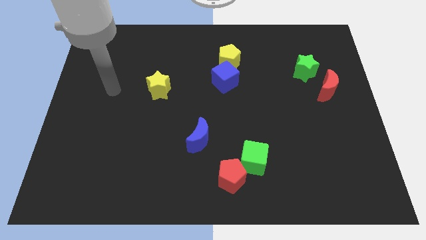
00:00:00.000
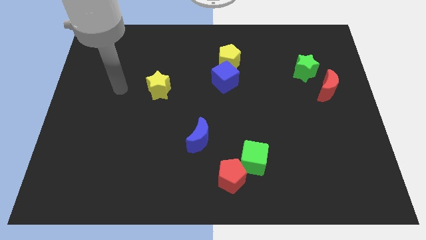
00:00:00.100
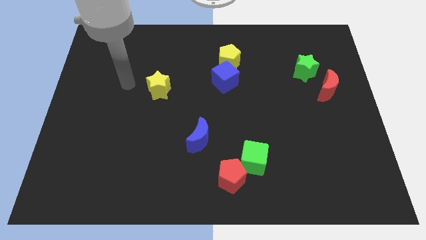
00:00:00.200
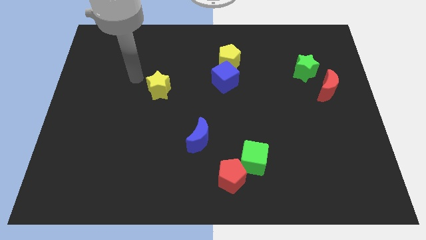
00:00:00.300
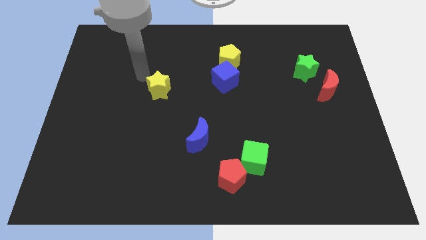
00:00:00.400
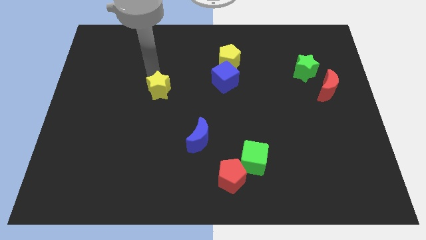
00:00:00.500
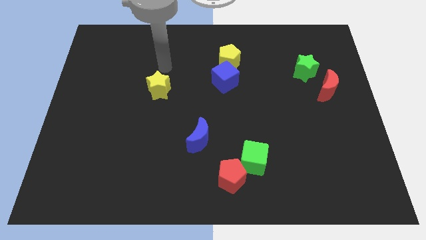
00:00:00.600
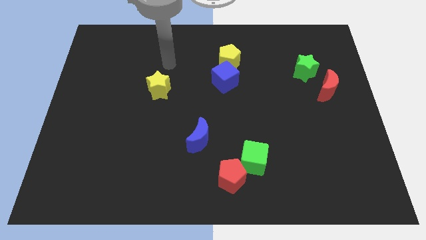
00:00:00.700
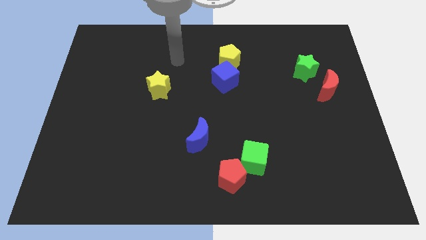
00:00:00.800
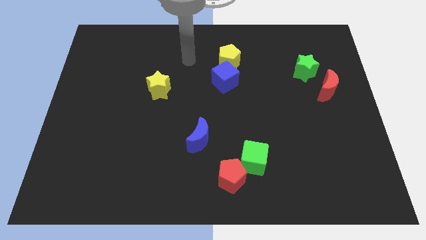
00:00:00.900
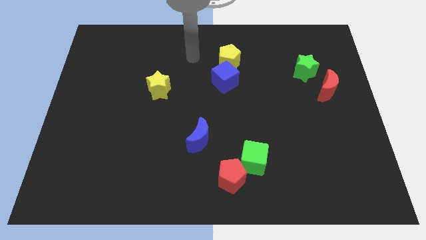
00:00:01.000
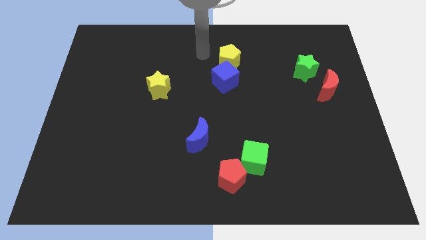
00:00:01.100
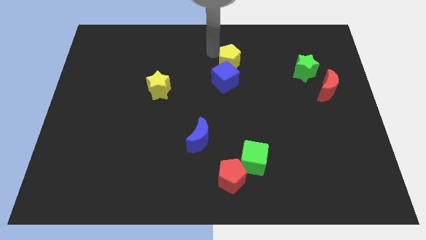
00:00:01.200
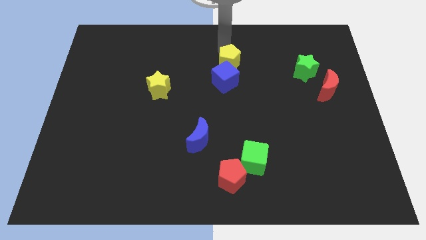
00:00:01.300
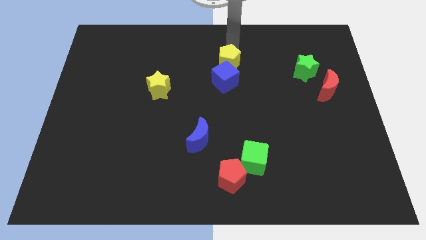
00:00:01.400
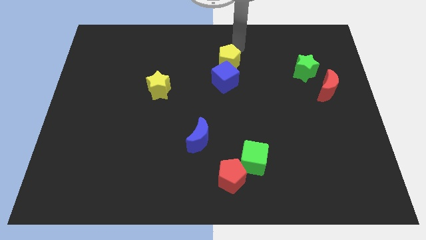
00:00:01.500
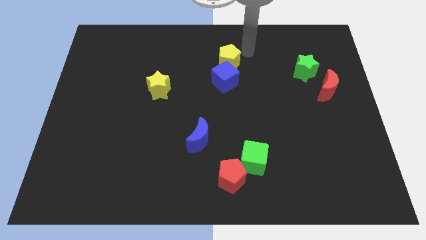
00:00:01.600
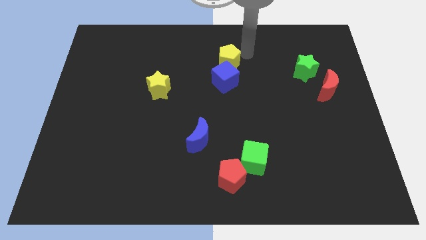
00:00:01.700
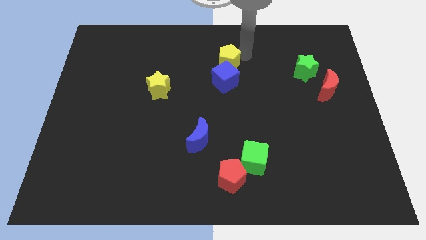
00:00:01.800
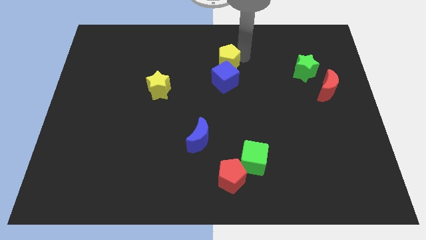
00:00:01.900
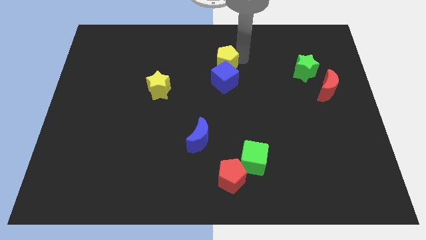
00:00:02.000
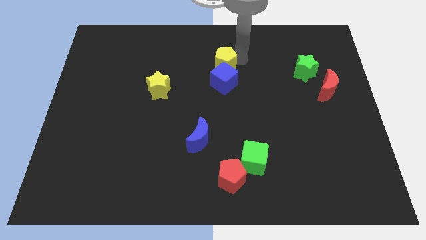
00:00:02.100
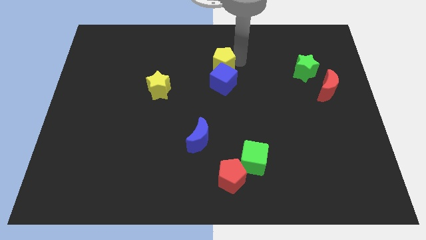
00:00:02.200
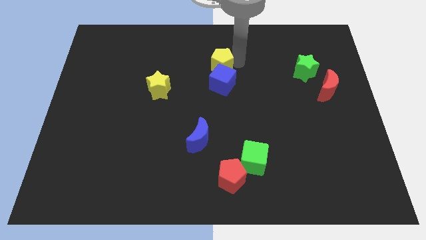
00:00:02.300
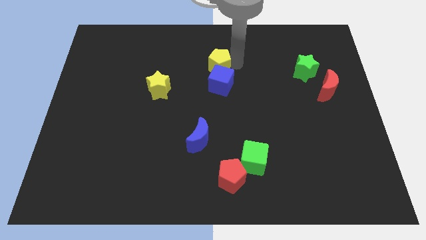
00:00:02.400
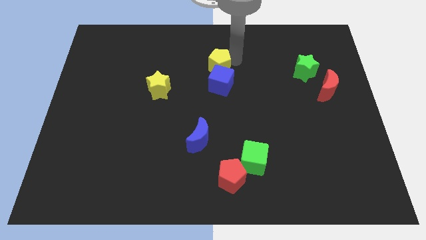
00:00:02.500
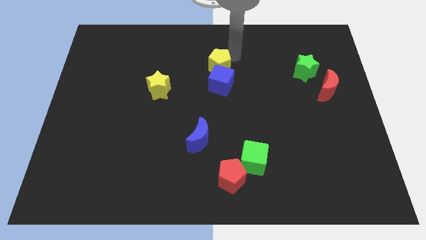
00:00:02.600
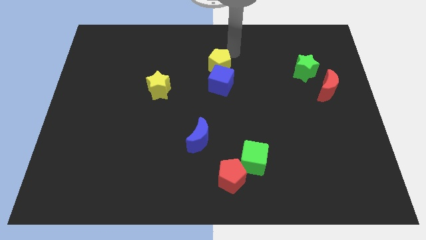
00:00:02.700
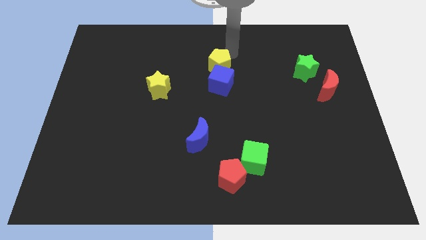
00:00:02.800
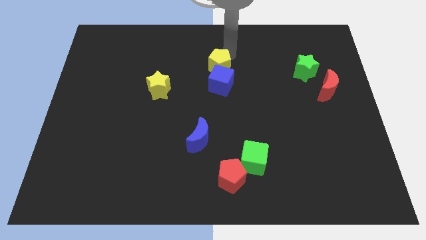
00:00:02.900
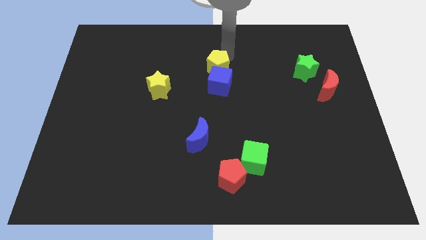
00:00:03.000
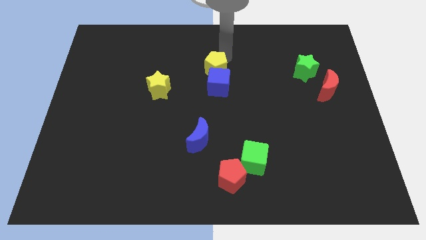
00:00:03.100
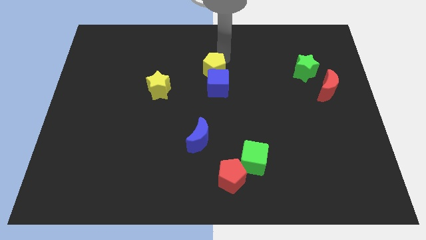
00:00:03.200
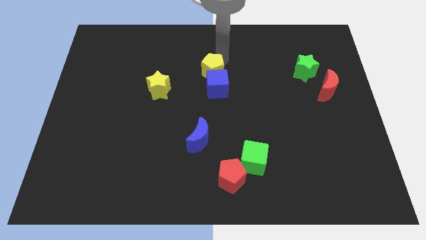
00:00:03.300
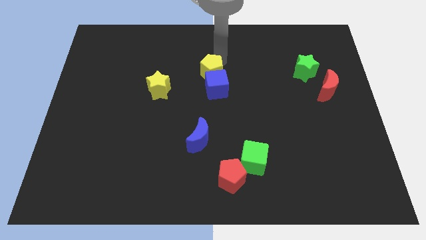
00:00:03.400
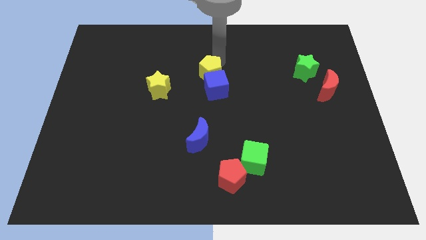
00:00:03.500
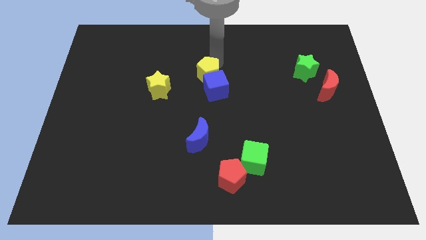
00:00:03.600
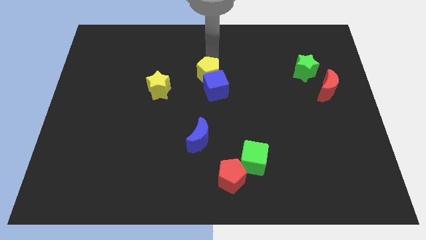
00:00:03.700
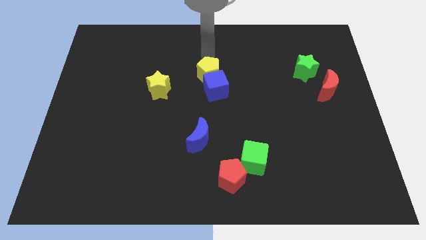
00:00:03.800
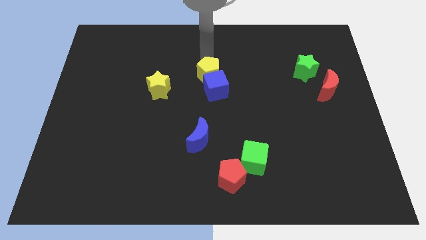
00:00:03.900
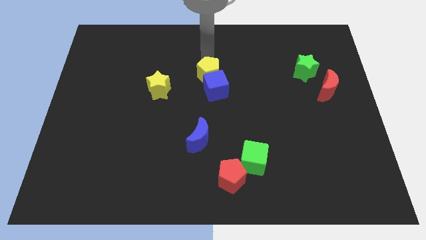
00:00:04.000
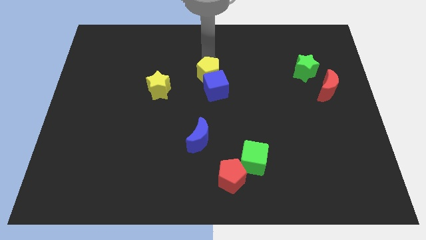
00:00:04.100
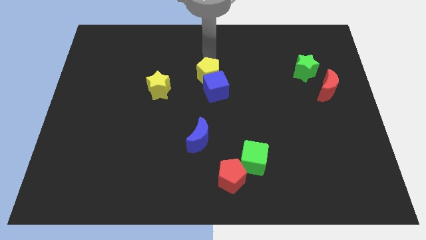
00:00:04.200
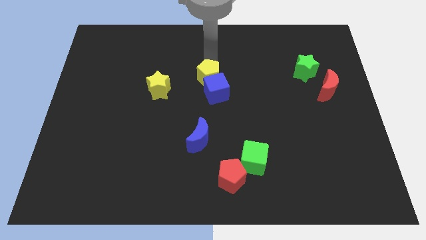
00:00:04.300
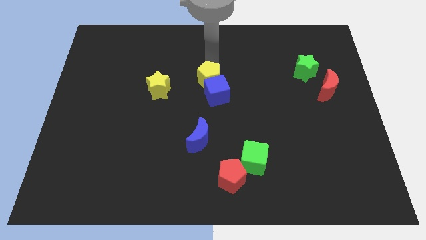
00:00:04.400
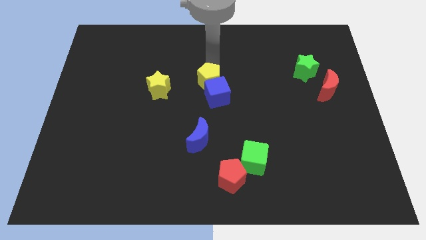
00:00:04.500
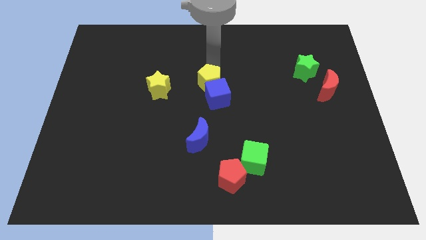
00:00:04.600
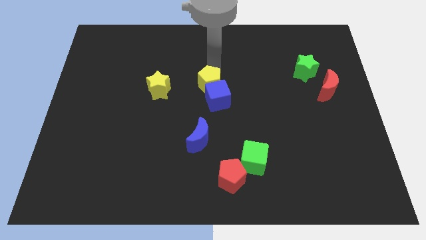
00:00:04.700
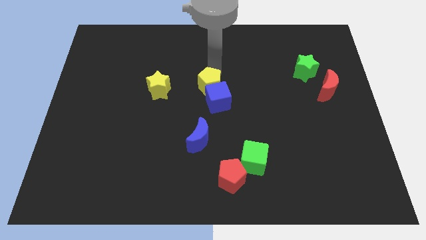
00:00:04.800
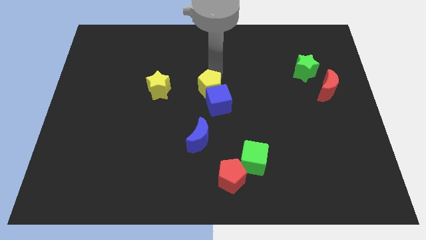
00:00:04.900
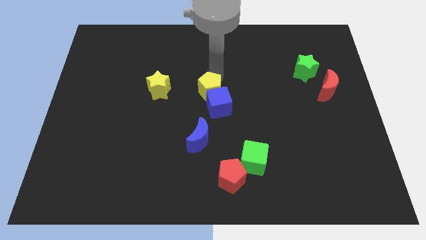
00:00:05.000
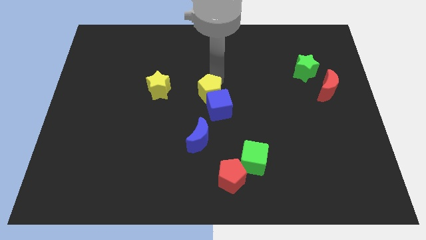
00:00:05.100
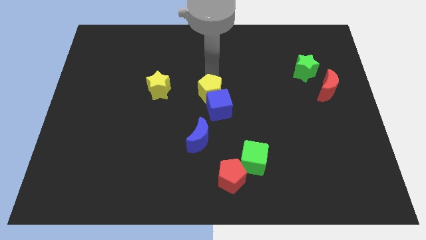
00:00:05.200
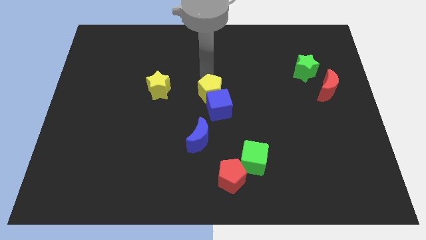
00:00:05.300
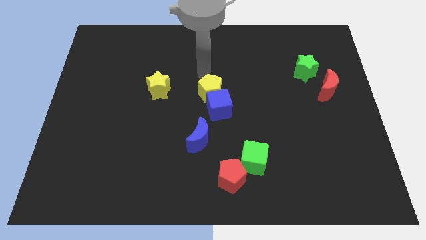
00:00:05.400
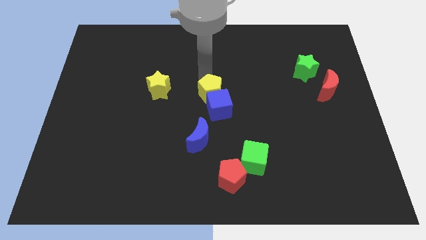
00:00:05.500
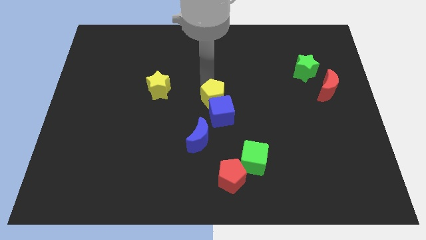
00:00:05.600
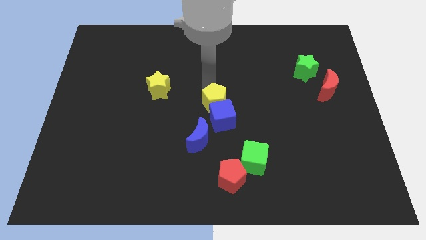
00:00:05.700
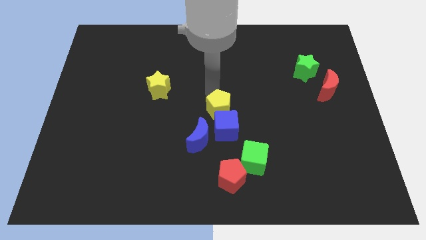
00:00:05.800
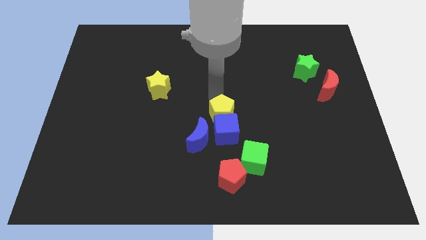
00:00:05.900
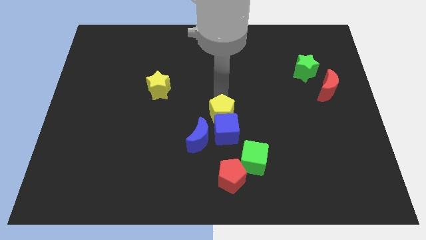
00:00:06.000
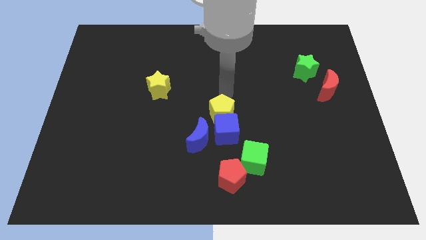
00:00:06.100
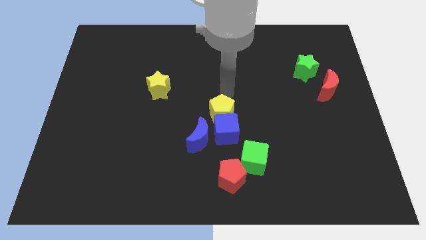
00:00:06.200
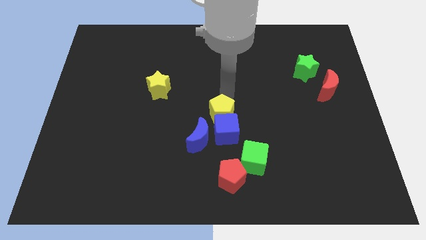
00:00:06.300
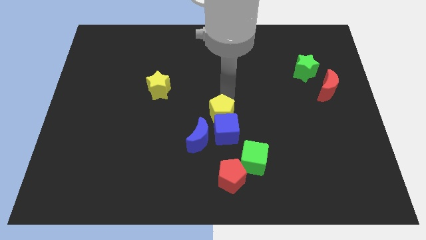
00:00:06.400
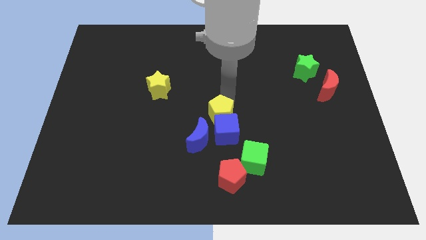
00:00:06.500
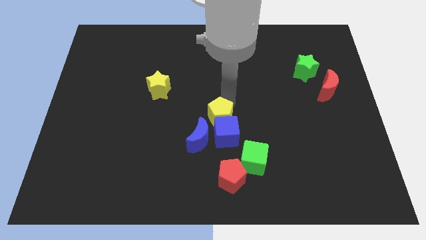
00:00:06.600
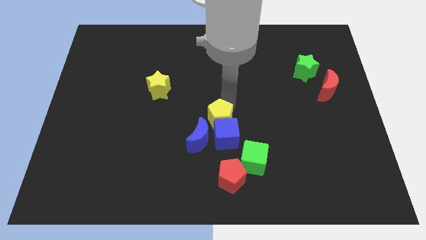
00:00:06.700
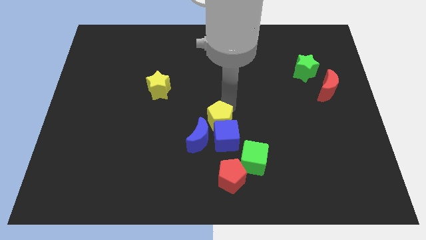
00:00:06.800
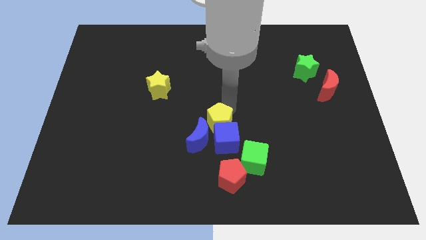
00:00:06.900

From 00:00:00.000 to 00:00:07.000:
slide the yellow pentagon next to the blue moon
